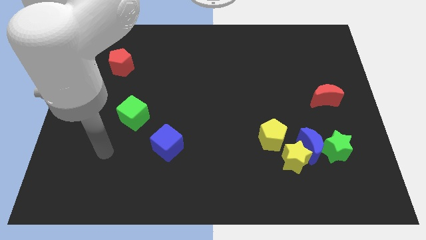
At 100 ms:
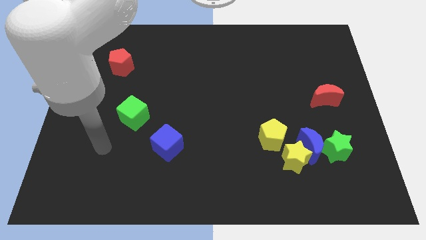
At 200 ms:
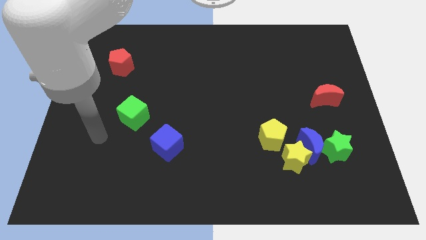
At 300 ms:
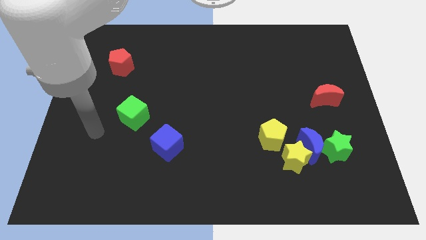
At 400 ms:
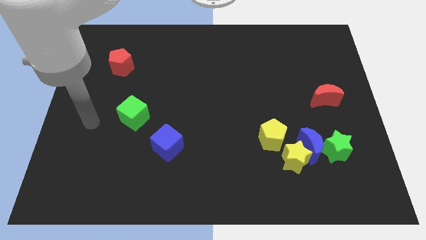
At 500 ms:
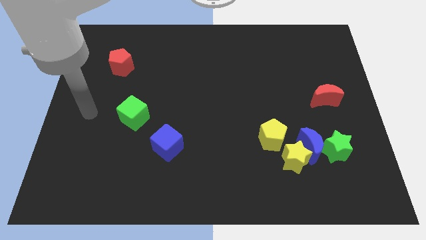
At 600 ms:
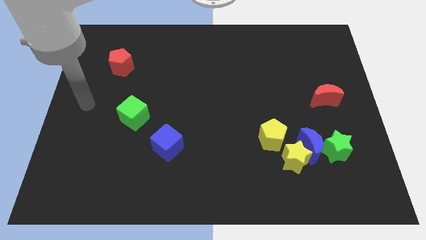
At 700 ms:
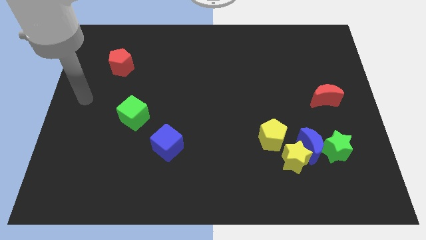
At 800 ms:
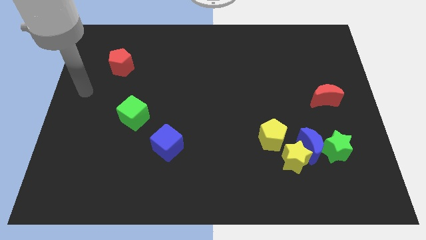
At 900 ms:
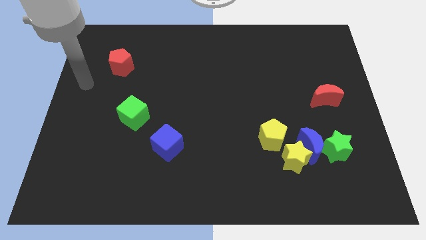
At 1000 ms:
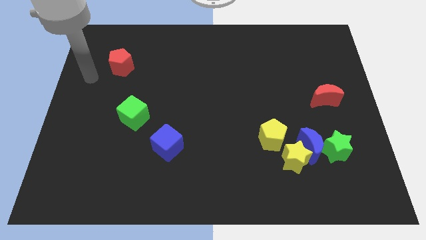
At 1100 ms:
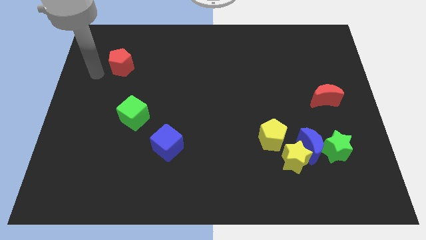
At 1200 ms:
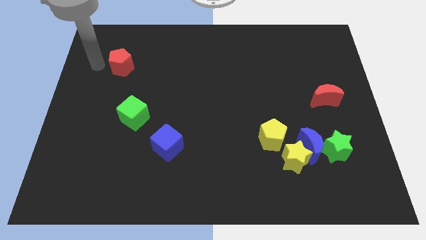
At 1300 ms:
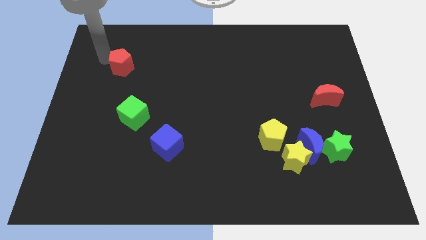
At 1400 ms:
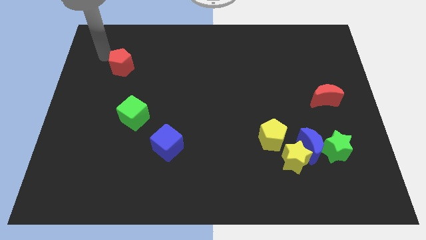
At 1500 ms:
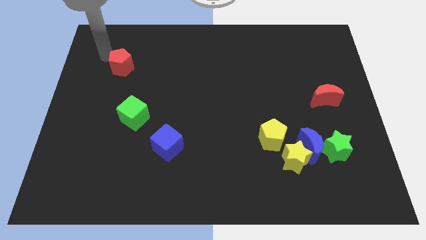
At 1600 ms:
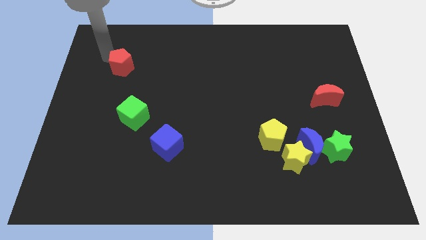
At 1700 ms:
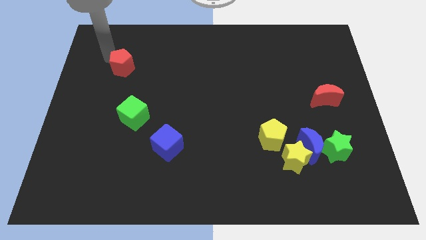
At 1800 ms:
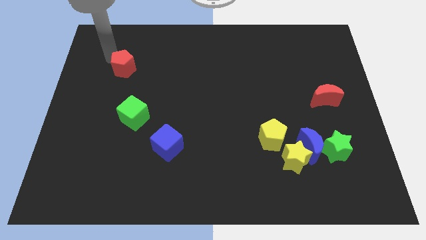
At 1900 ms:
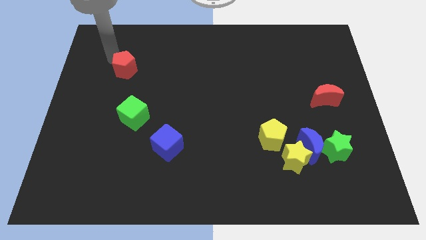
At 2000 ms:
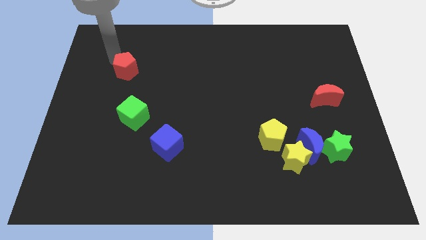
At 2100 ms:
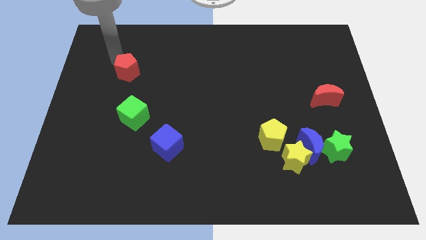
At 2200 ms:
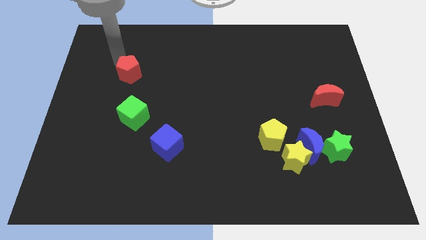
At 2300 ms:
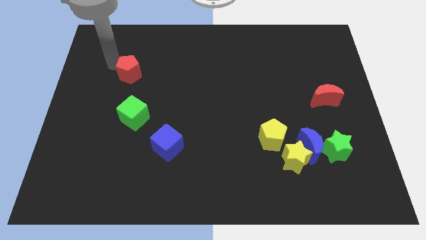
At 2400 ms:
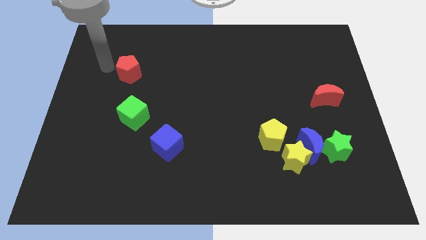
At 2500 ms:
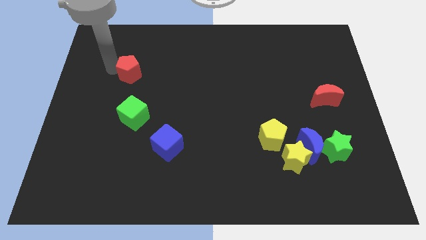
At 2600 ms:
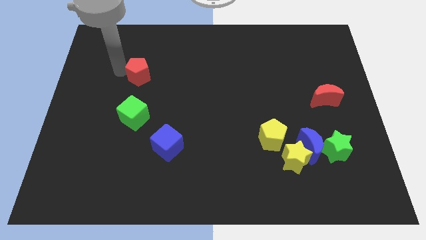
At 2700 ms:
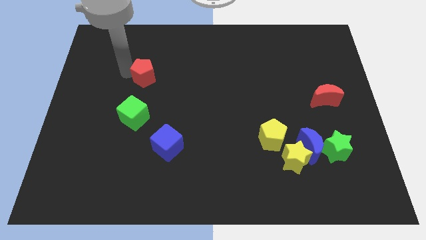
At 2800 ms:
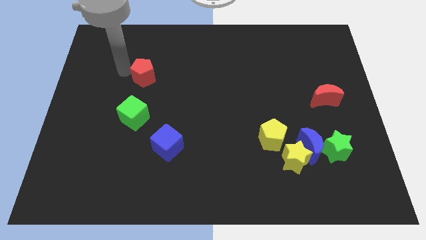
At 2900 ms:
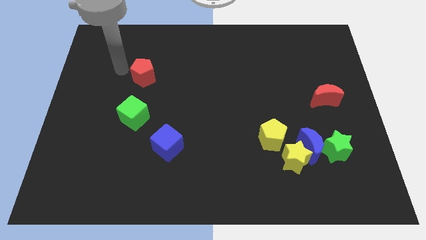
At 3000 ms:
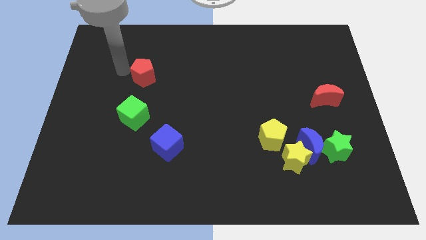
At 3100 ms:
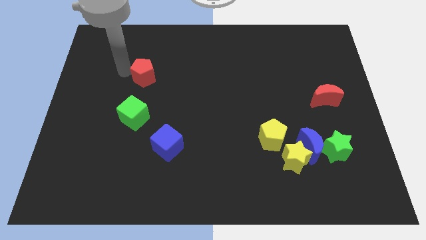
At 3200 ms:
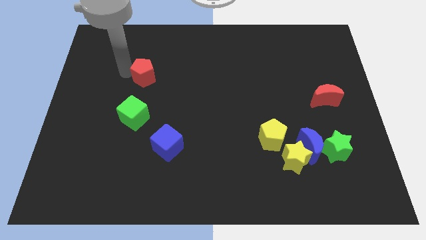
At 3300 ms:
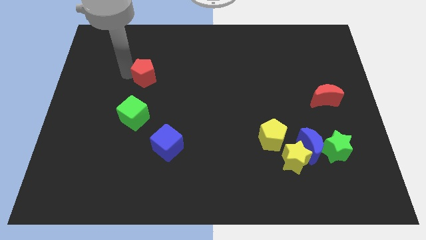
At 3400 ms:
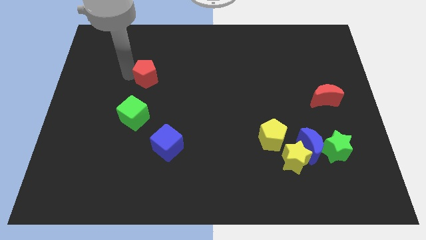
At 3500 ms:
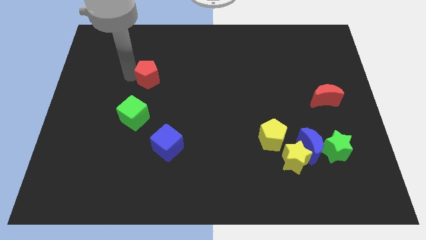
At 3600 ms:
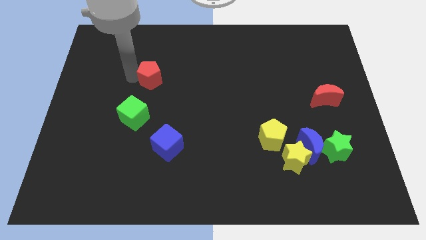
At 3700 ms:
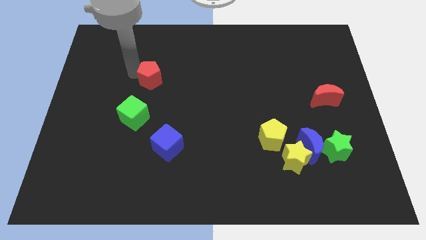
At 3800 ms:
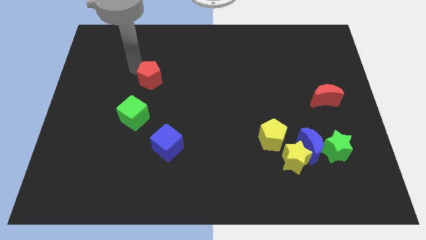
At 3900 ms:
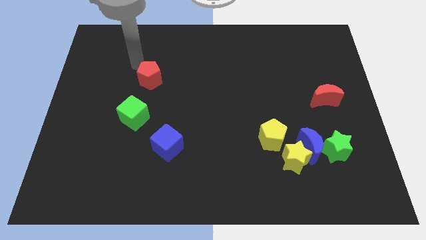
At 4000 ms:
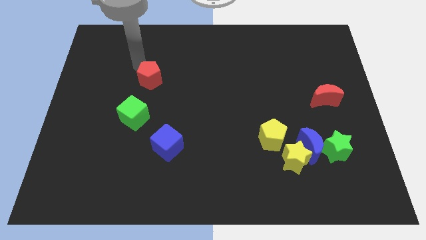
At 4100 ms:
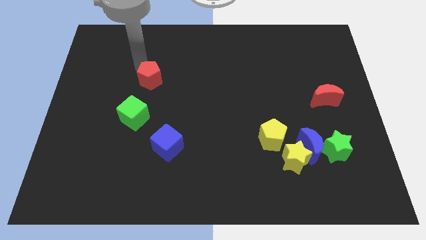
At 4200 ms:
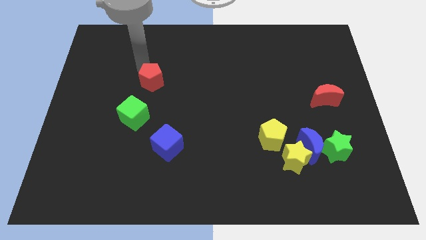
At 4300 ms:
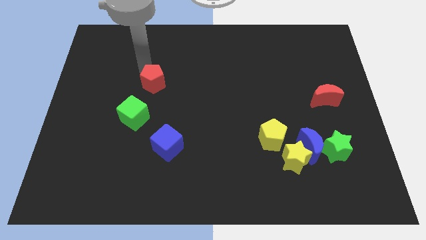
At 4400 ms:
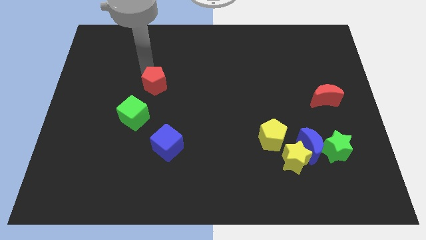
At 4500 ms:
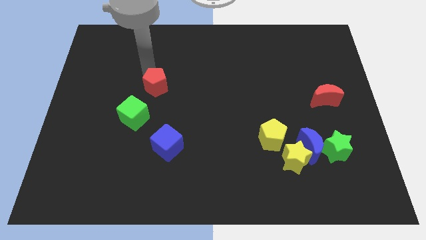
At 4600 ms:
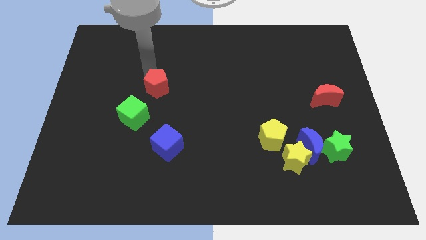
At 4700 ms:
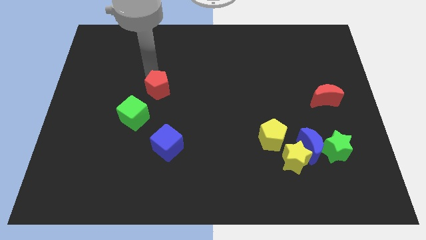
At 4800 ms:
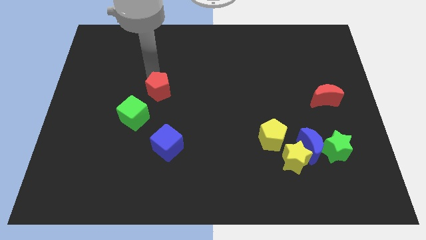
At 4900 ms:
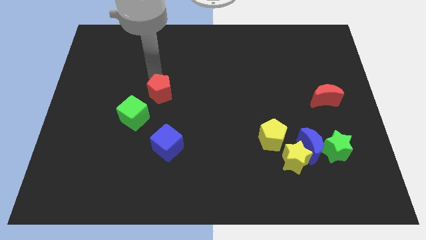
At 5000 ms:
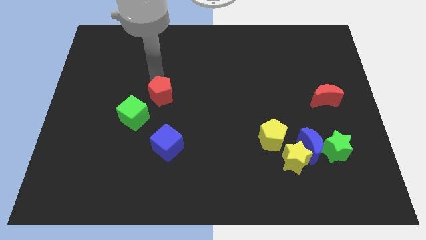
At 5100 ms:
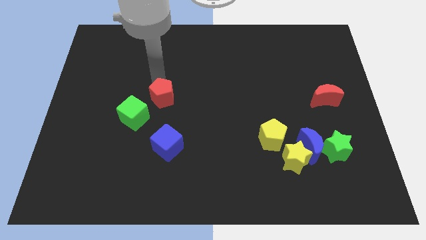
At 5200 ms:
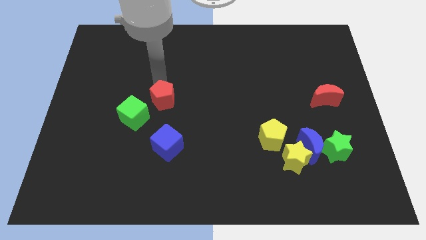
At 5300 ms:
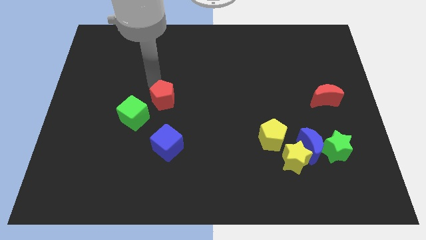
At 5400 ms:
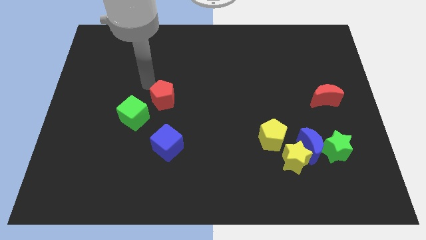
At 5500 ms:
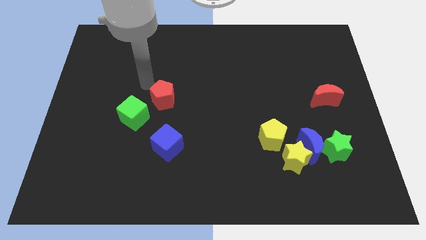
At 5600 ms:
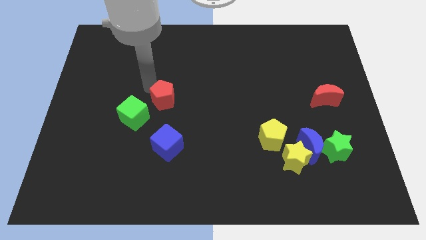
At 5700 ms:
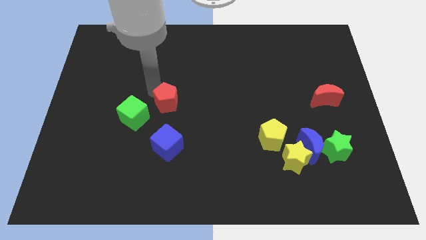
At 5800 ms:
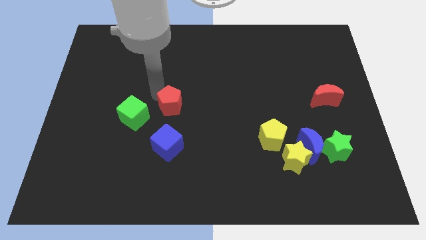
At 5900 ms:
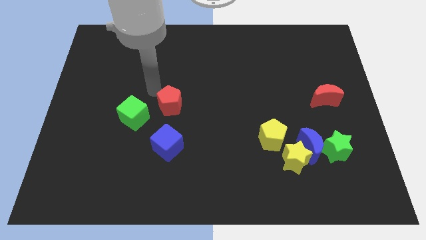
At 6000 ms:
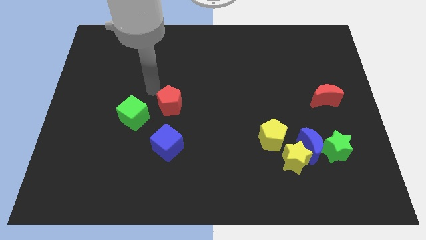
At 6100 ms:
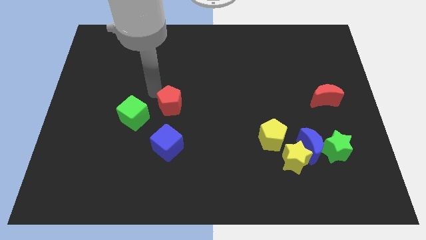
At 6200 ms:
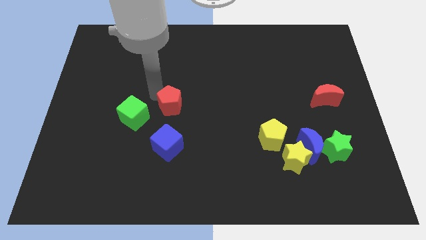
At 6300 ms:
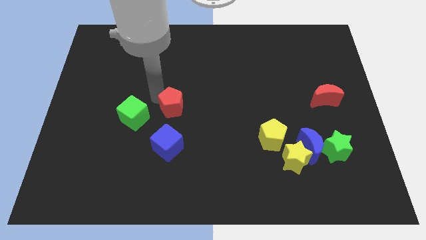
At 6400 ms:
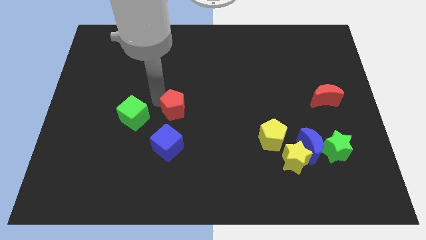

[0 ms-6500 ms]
move the red pentagon downwards and right diagonally

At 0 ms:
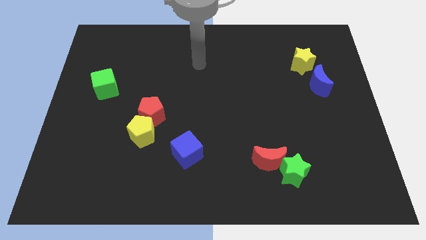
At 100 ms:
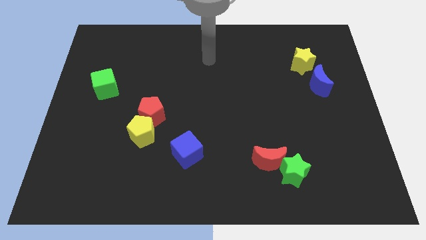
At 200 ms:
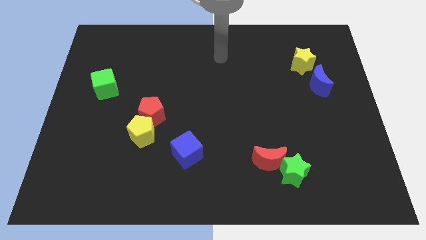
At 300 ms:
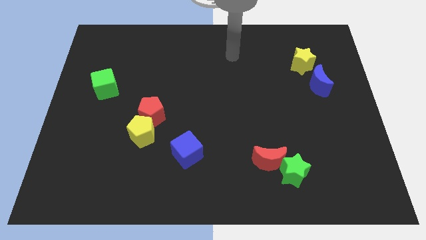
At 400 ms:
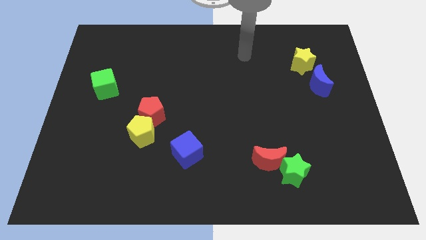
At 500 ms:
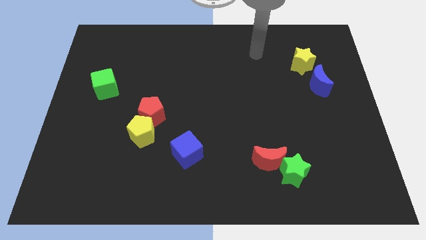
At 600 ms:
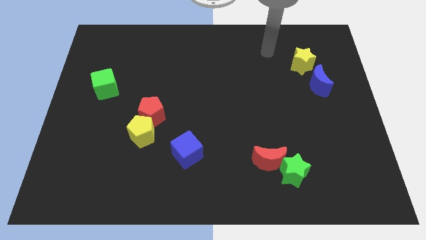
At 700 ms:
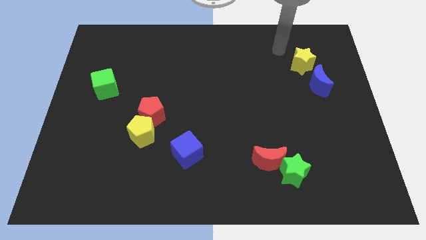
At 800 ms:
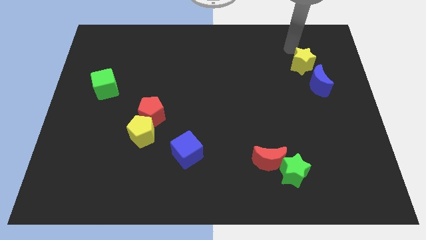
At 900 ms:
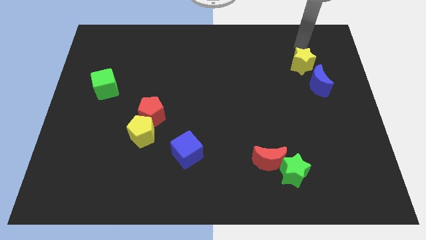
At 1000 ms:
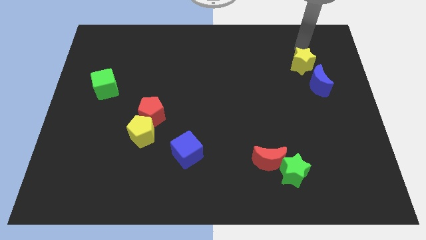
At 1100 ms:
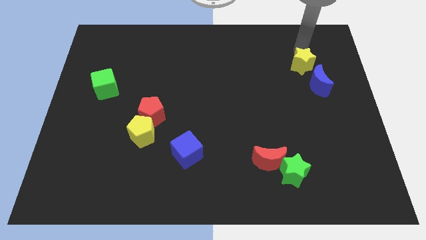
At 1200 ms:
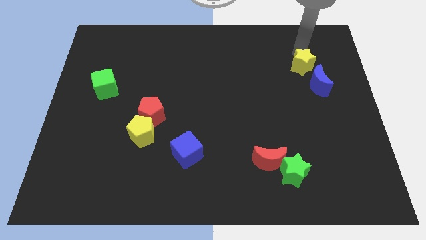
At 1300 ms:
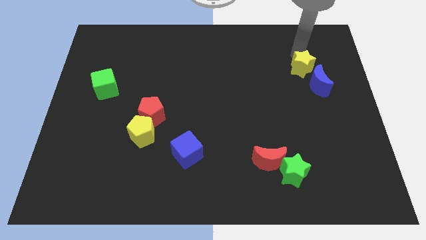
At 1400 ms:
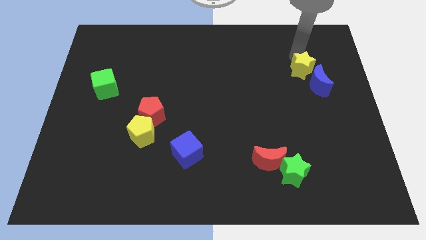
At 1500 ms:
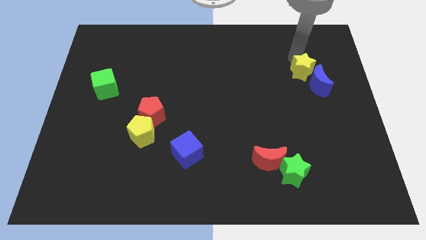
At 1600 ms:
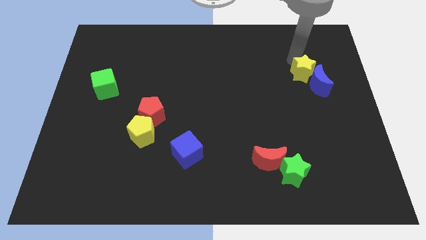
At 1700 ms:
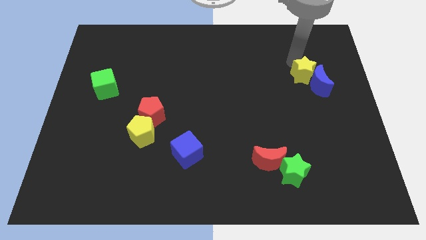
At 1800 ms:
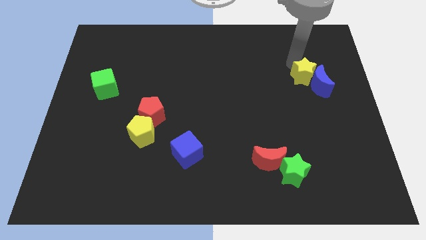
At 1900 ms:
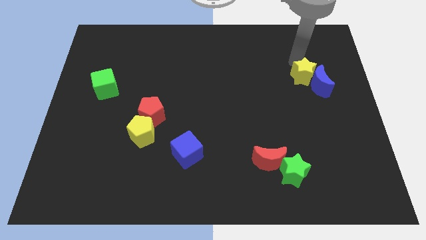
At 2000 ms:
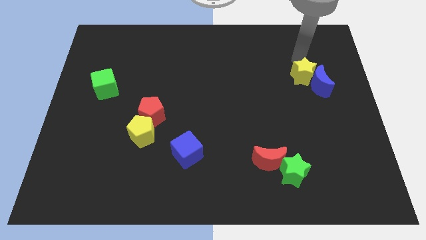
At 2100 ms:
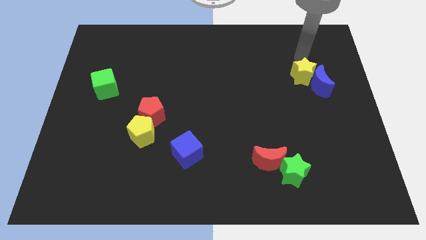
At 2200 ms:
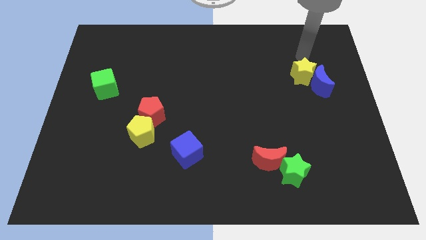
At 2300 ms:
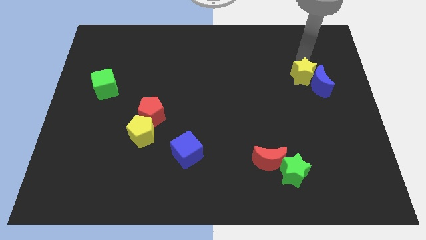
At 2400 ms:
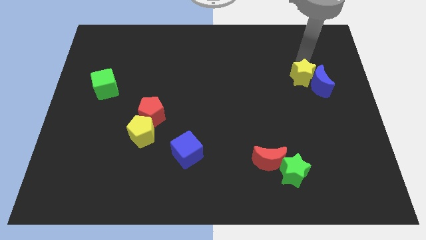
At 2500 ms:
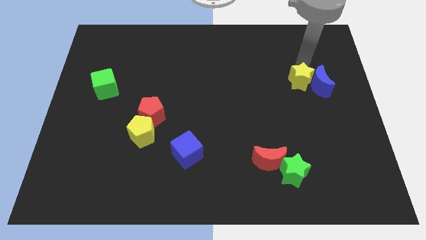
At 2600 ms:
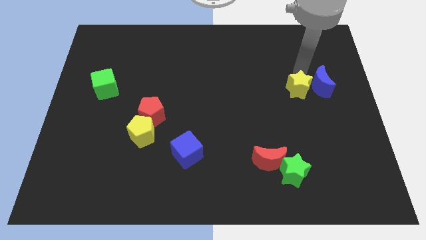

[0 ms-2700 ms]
push the yellow star downwards a little bit
